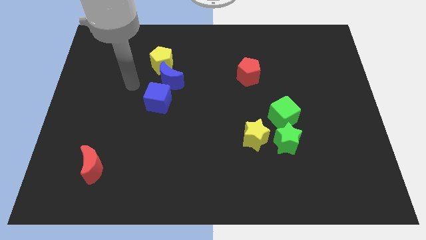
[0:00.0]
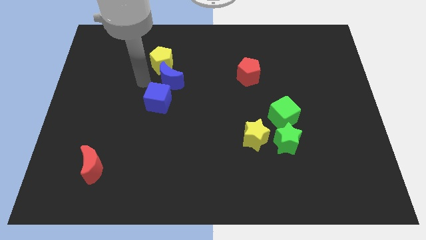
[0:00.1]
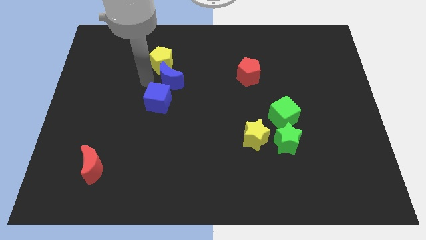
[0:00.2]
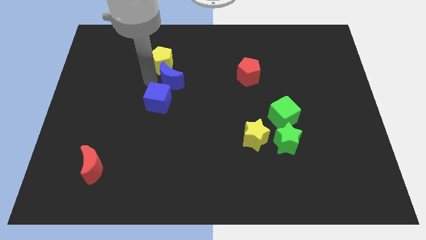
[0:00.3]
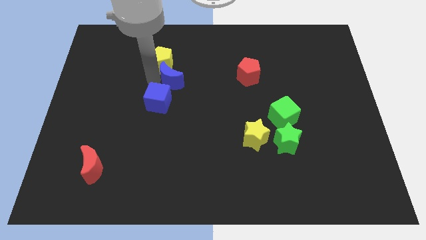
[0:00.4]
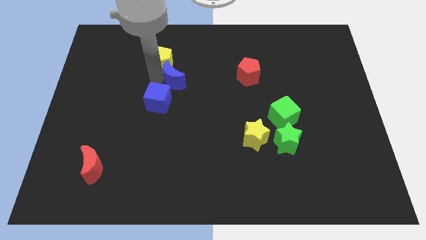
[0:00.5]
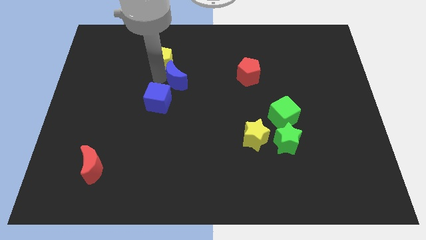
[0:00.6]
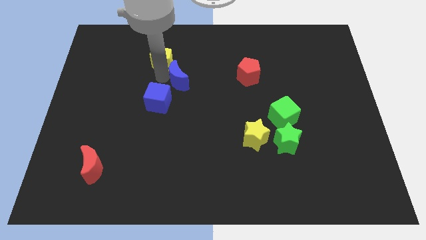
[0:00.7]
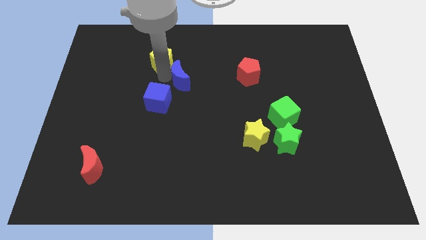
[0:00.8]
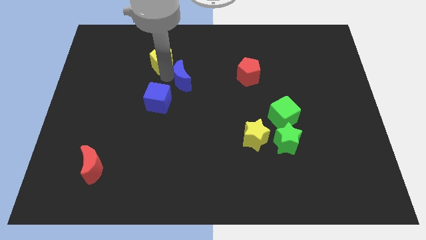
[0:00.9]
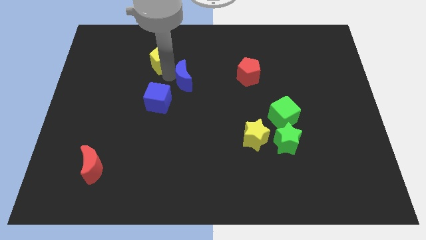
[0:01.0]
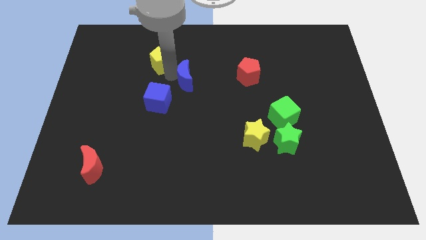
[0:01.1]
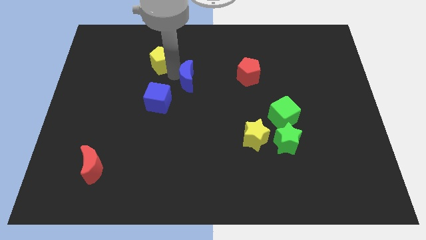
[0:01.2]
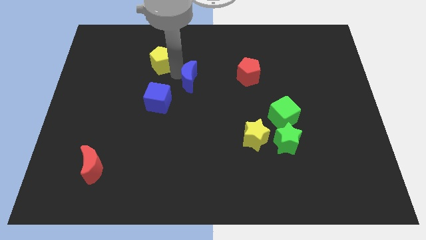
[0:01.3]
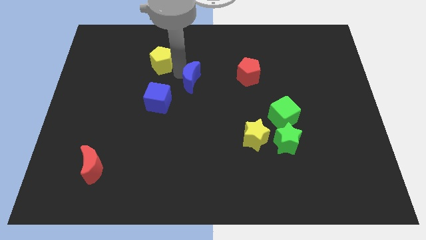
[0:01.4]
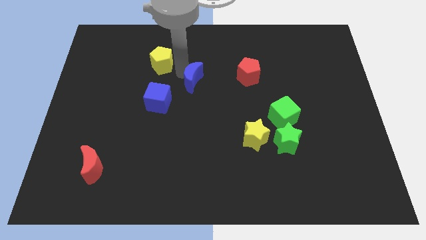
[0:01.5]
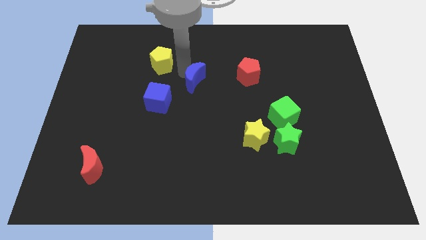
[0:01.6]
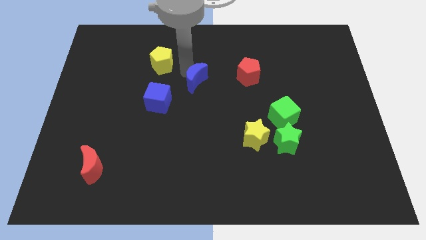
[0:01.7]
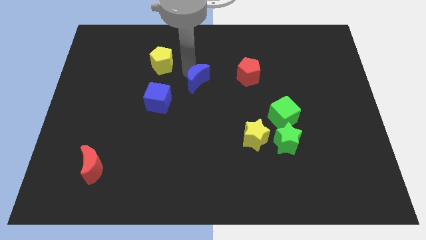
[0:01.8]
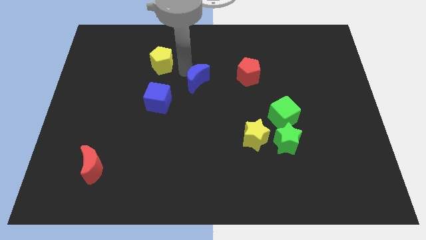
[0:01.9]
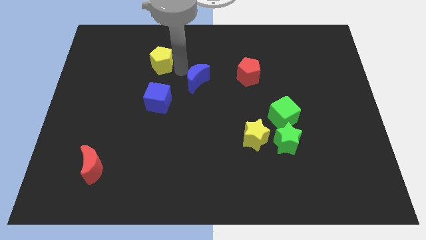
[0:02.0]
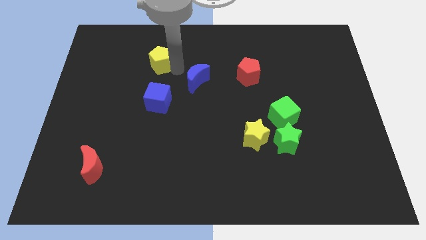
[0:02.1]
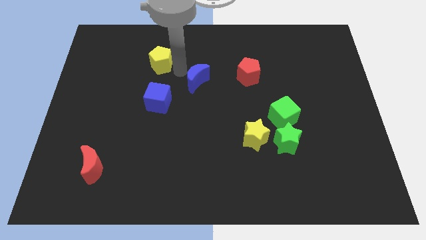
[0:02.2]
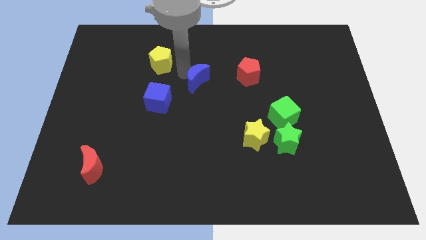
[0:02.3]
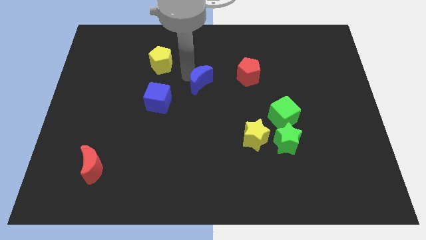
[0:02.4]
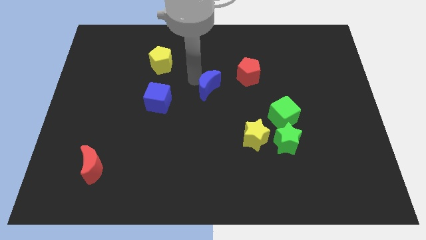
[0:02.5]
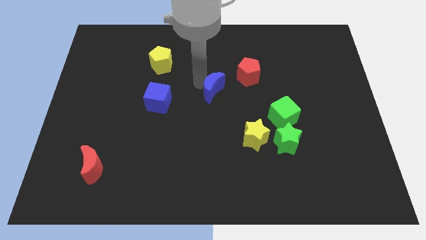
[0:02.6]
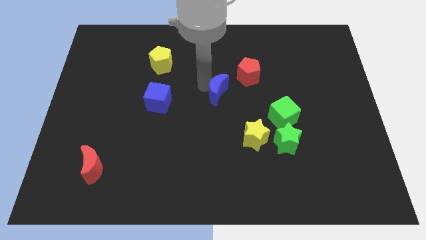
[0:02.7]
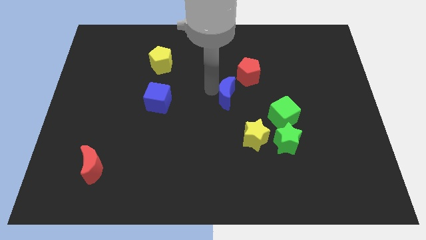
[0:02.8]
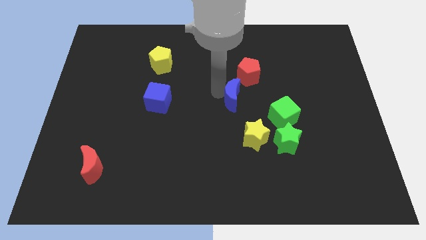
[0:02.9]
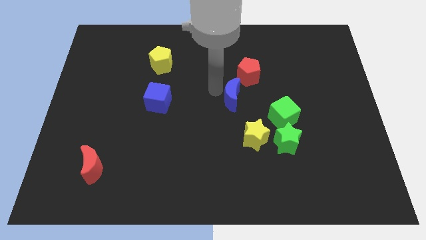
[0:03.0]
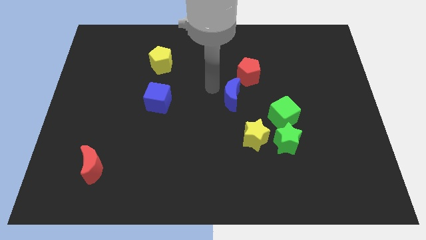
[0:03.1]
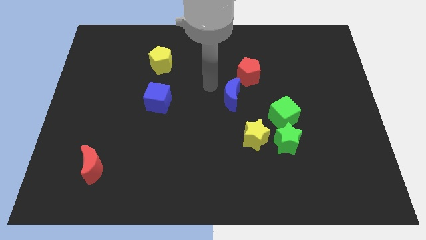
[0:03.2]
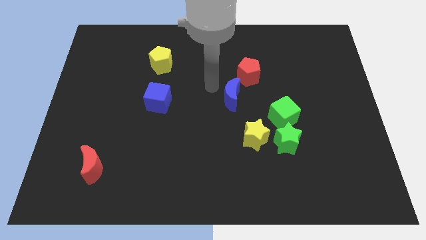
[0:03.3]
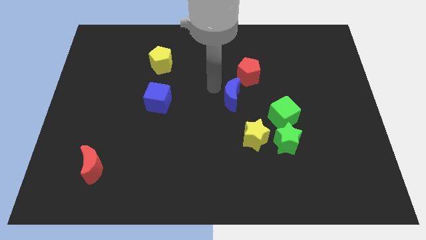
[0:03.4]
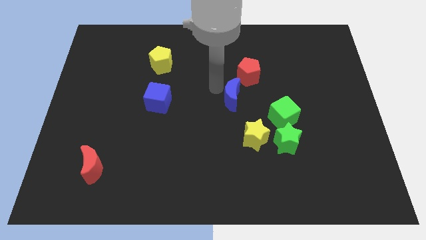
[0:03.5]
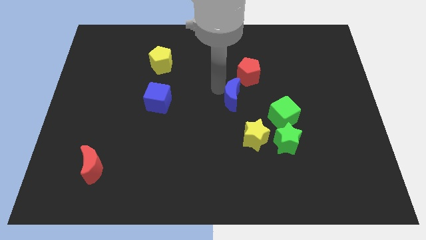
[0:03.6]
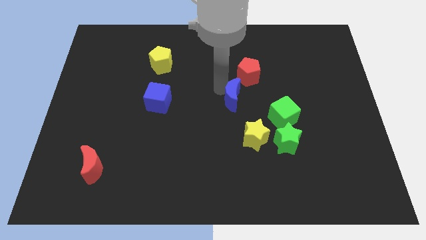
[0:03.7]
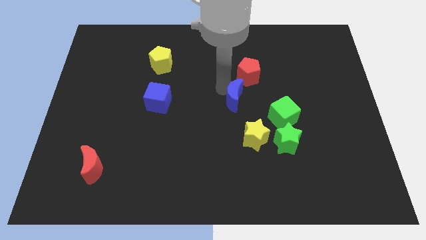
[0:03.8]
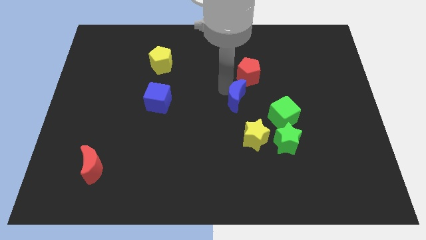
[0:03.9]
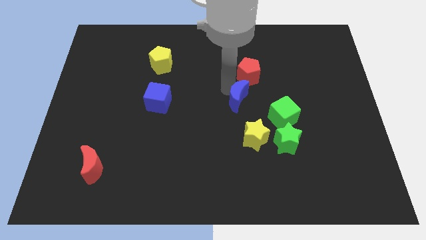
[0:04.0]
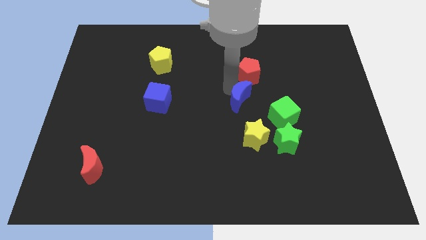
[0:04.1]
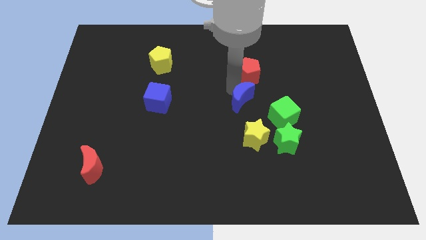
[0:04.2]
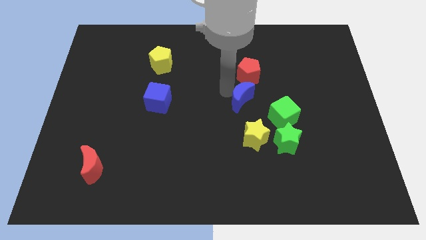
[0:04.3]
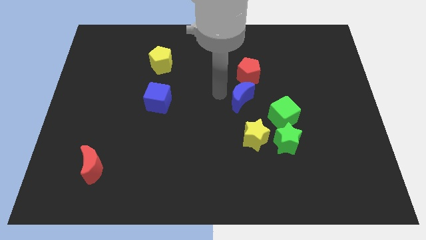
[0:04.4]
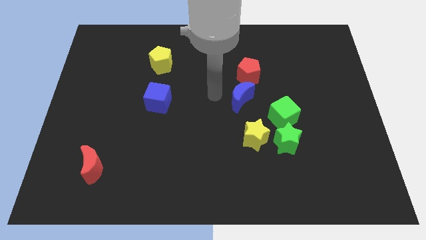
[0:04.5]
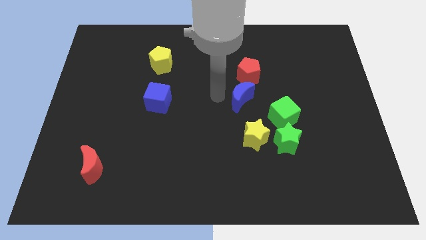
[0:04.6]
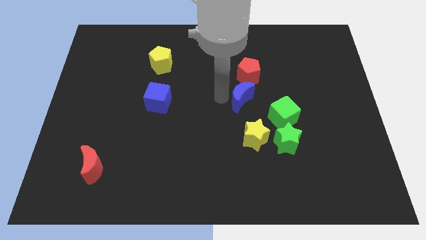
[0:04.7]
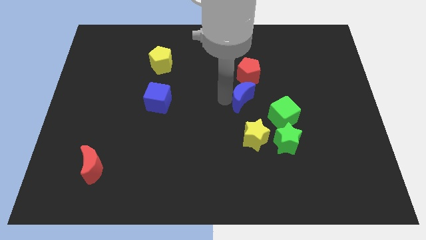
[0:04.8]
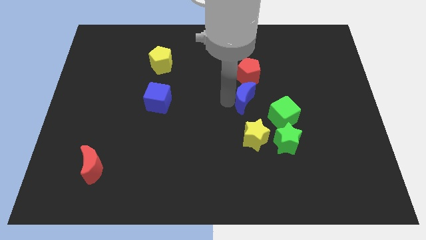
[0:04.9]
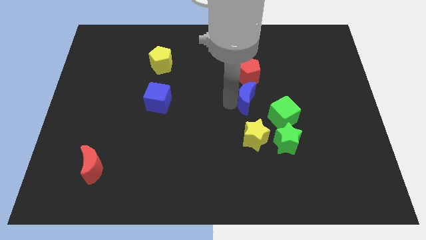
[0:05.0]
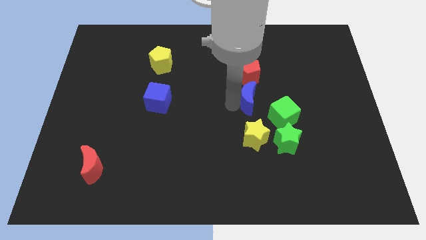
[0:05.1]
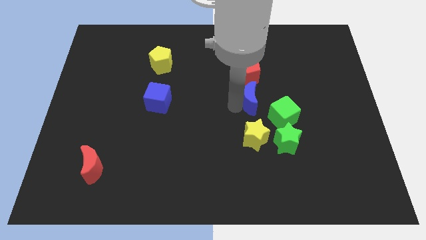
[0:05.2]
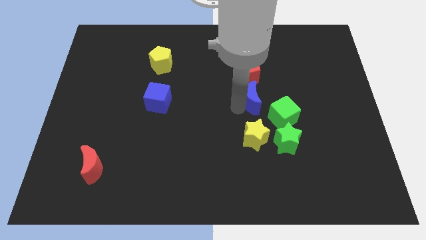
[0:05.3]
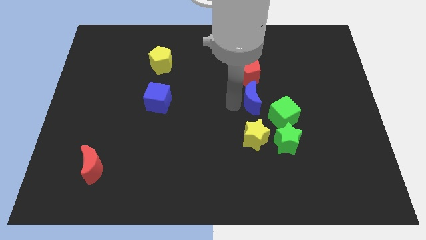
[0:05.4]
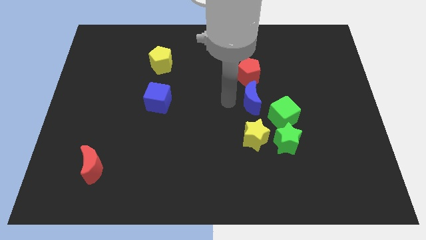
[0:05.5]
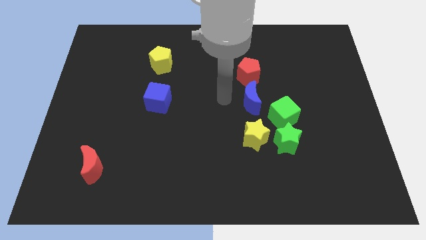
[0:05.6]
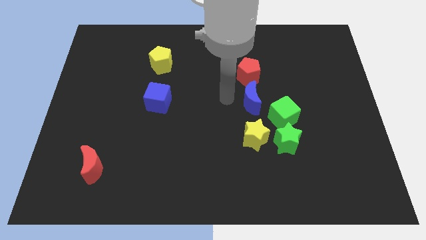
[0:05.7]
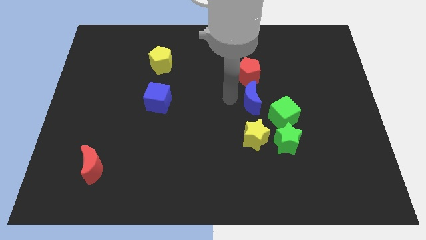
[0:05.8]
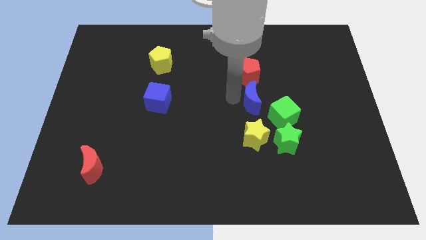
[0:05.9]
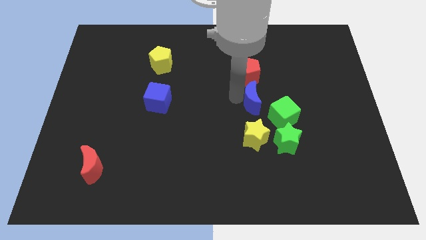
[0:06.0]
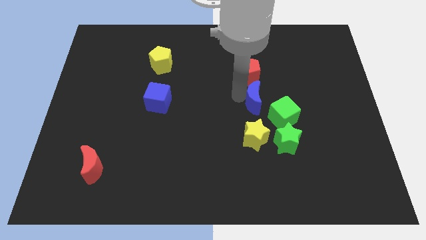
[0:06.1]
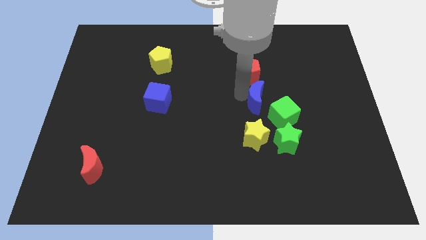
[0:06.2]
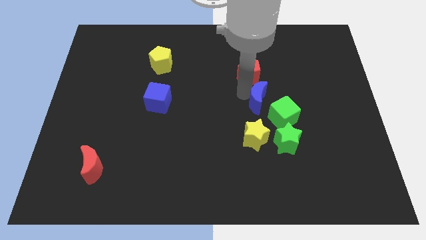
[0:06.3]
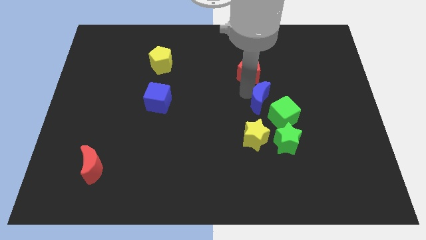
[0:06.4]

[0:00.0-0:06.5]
move the blue moon to the top of the green star

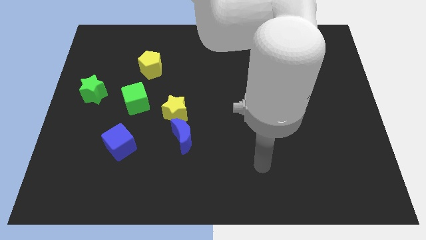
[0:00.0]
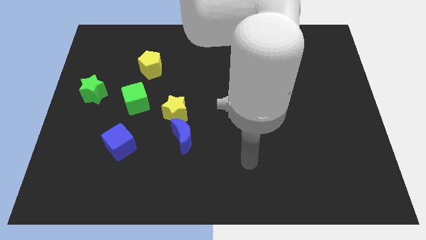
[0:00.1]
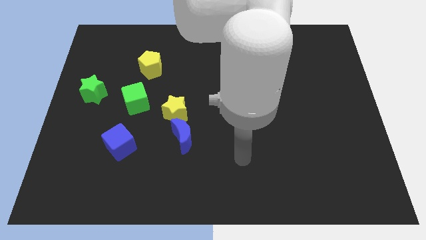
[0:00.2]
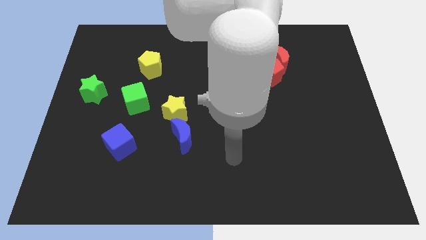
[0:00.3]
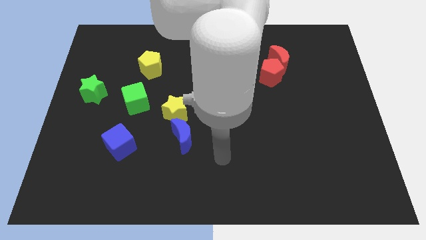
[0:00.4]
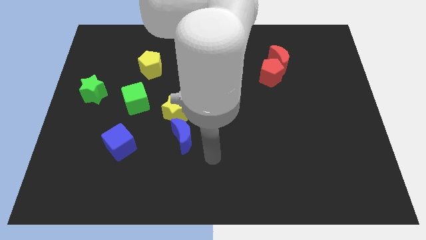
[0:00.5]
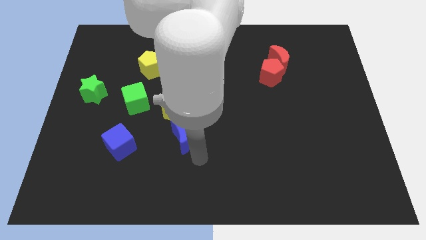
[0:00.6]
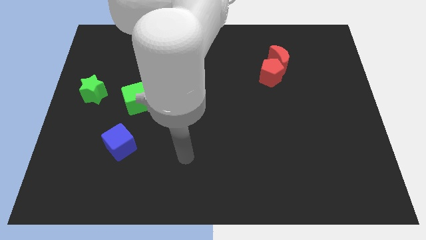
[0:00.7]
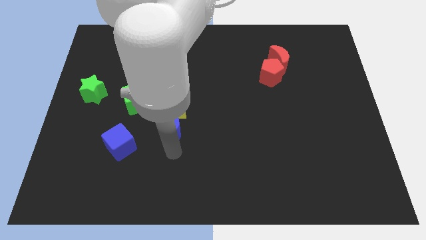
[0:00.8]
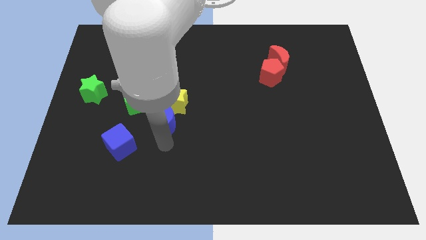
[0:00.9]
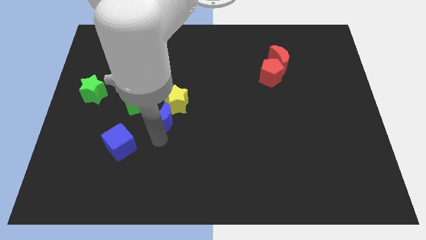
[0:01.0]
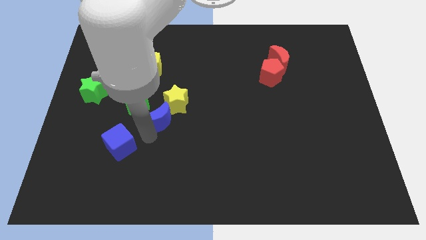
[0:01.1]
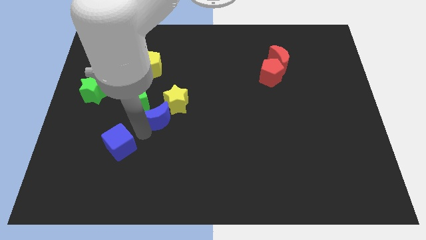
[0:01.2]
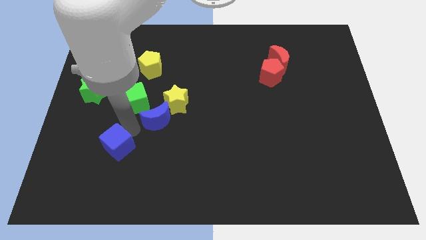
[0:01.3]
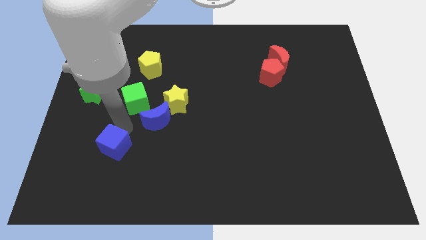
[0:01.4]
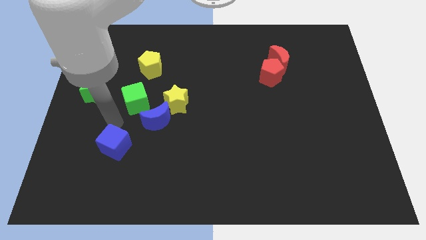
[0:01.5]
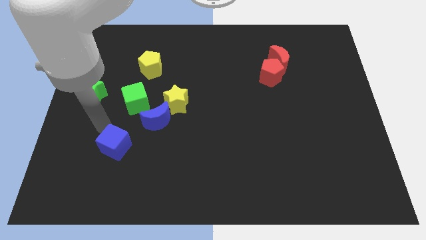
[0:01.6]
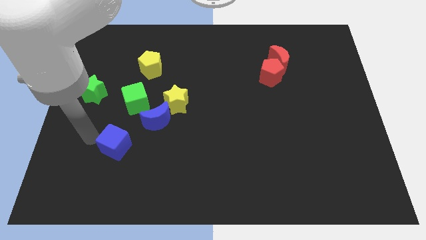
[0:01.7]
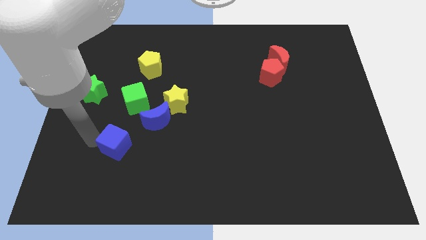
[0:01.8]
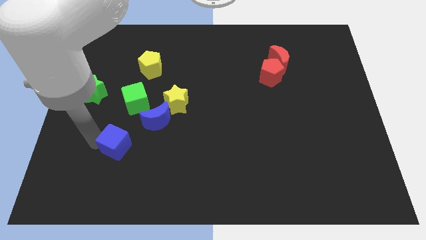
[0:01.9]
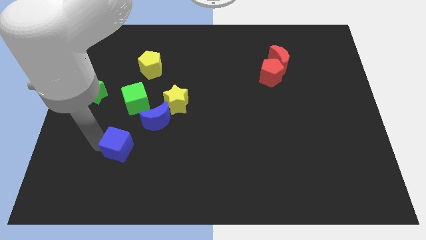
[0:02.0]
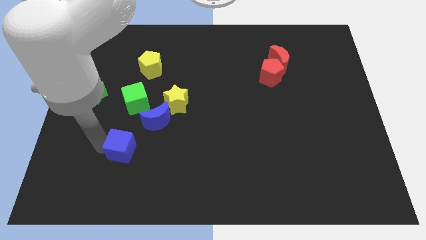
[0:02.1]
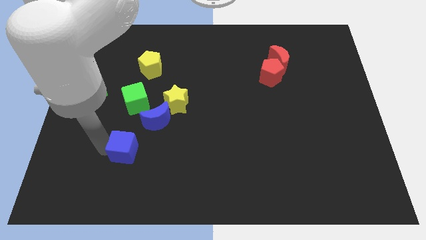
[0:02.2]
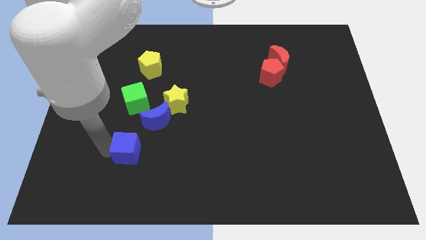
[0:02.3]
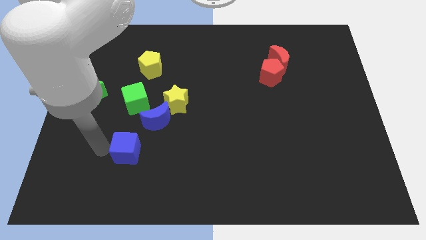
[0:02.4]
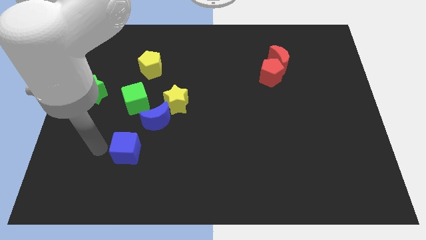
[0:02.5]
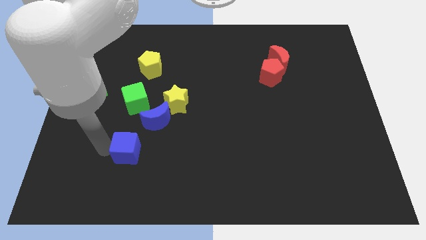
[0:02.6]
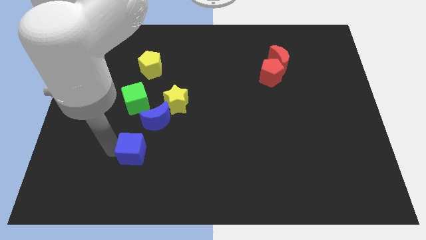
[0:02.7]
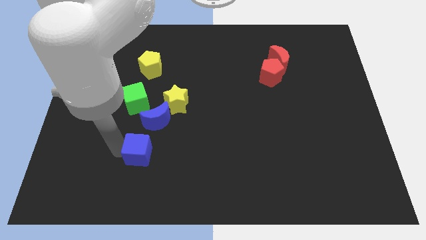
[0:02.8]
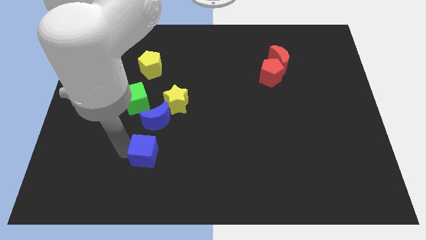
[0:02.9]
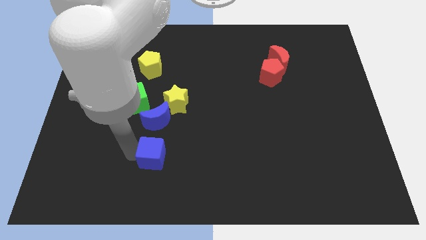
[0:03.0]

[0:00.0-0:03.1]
put the blue cube to the bottom side of the yellow star
